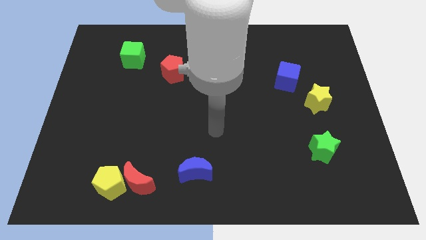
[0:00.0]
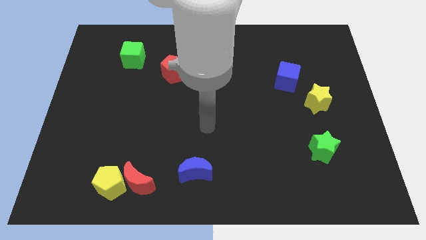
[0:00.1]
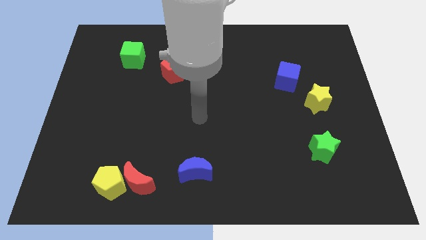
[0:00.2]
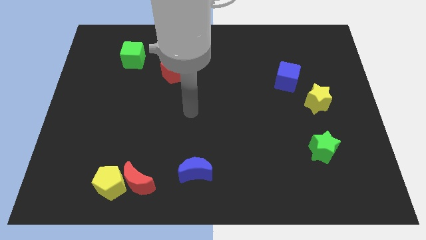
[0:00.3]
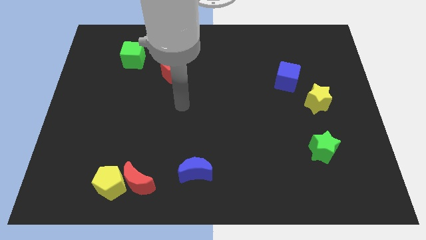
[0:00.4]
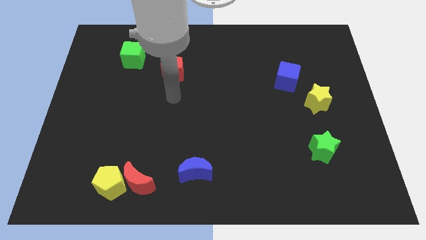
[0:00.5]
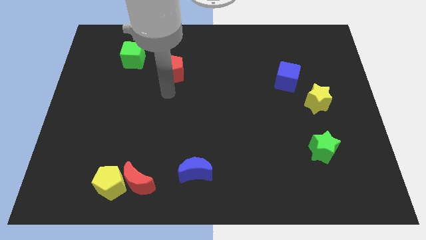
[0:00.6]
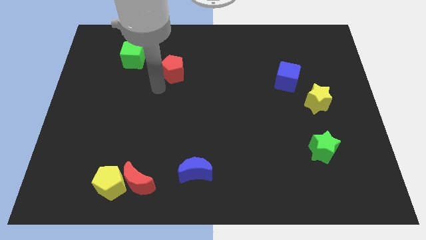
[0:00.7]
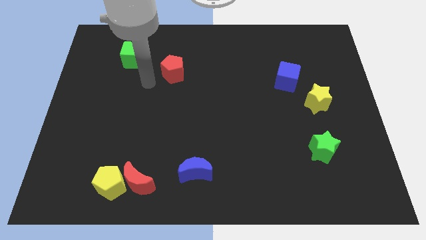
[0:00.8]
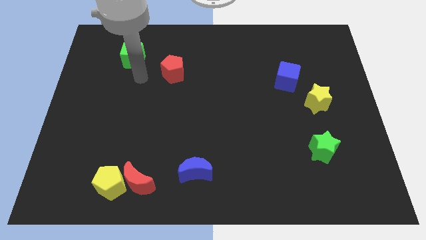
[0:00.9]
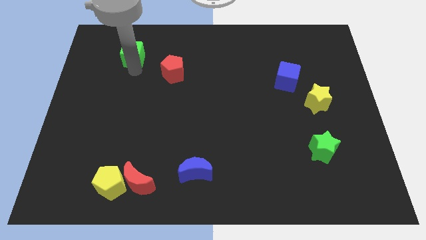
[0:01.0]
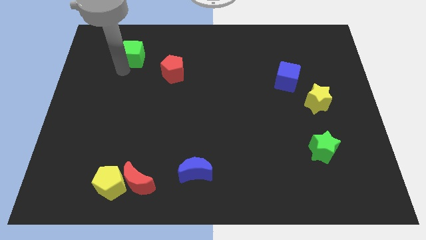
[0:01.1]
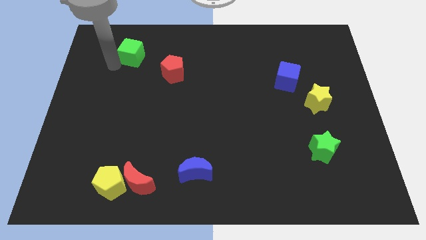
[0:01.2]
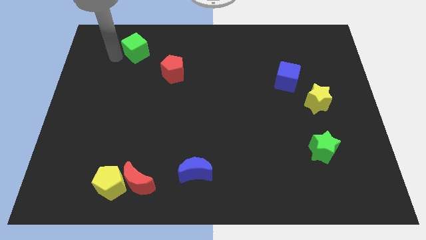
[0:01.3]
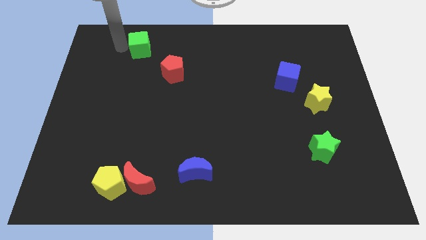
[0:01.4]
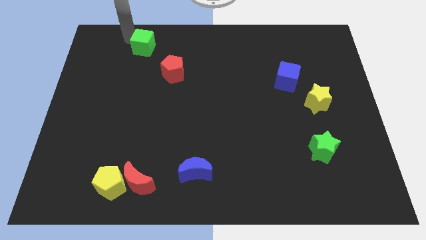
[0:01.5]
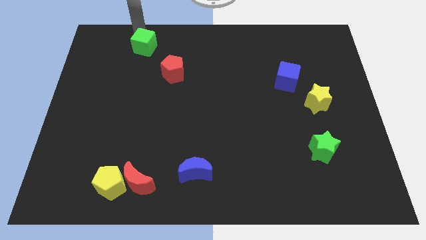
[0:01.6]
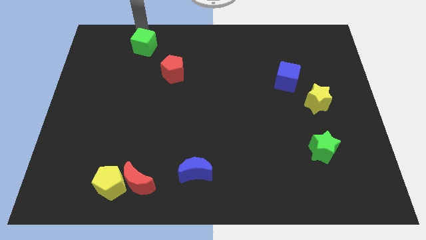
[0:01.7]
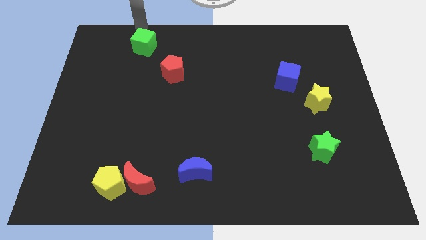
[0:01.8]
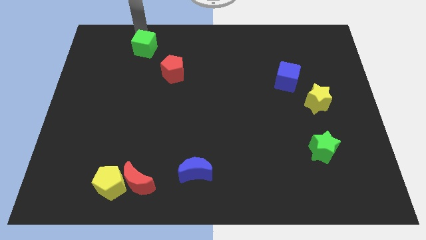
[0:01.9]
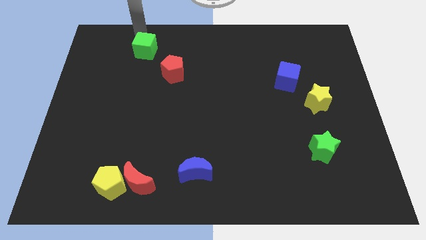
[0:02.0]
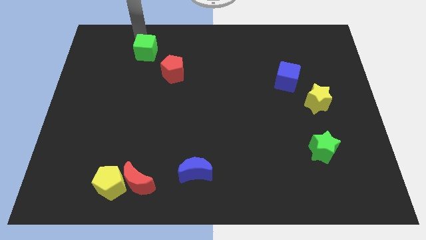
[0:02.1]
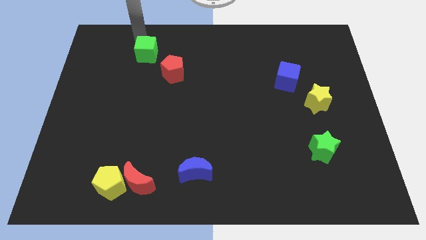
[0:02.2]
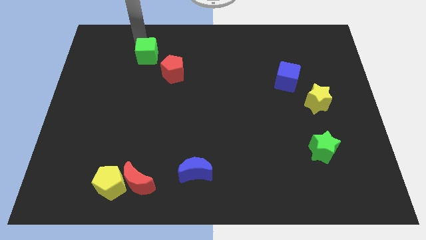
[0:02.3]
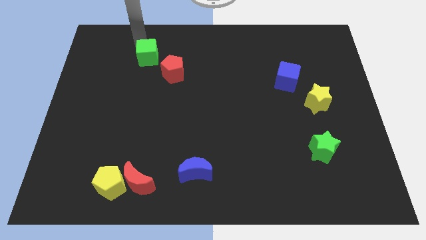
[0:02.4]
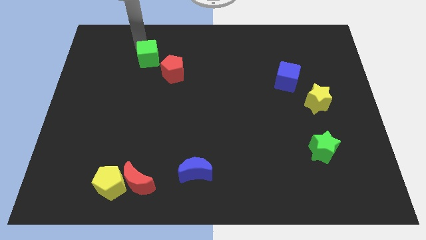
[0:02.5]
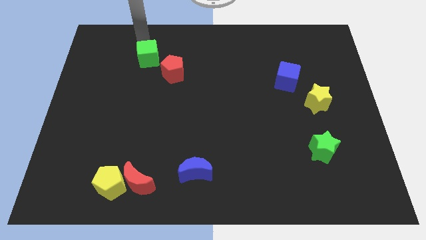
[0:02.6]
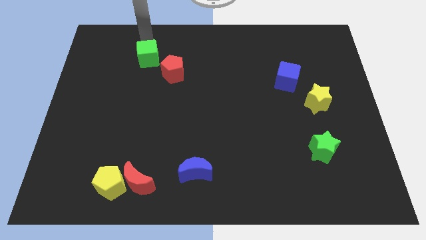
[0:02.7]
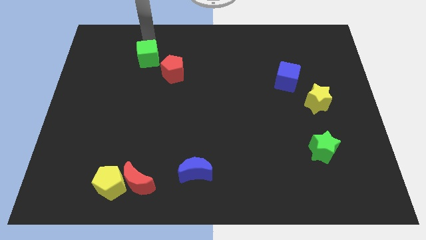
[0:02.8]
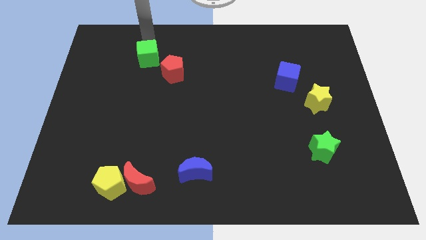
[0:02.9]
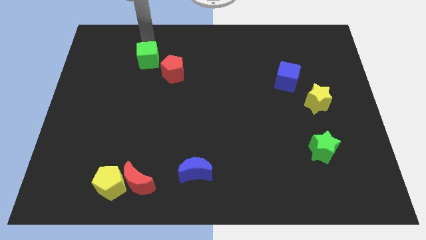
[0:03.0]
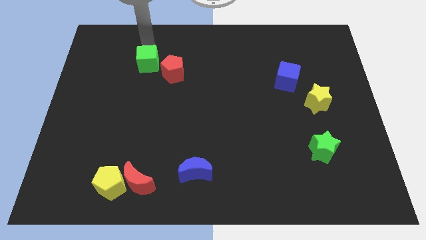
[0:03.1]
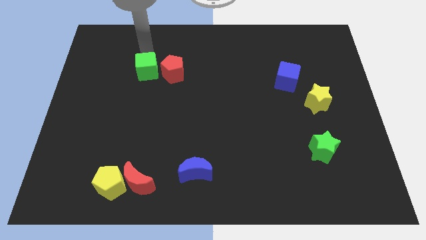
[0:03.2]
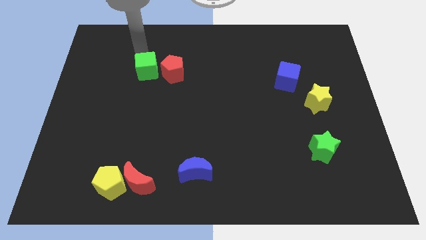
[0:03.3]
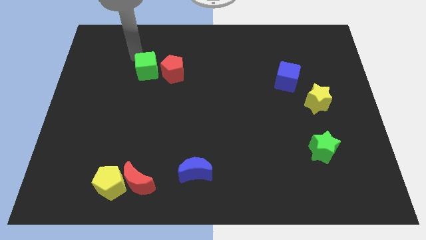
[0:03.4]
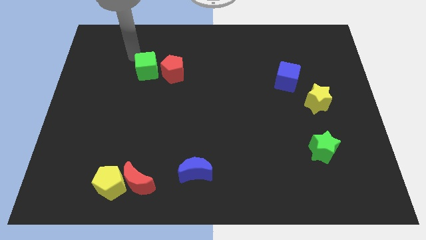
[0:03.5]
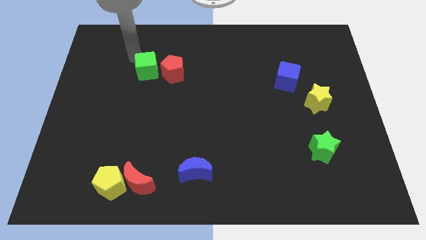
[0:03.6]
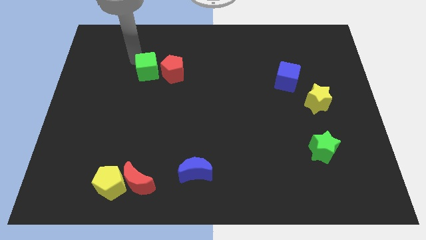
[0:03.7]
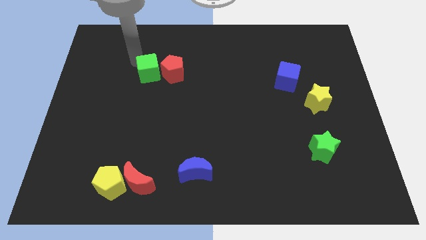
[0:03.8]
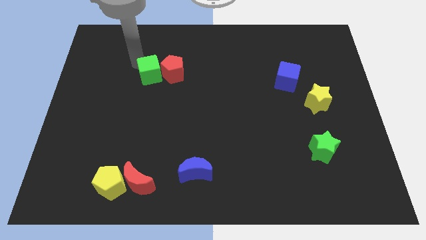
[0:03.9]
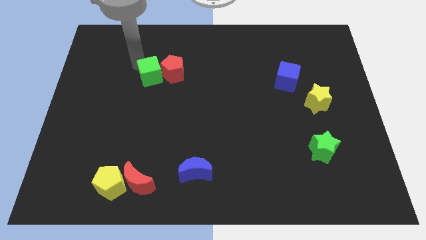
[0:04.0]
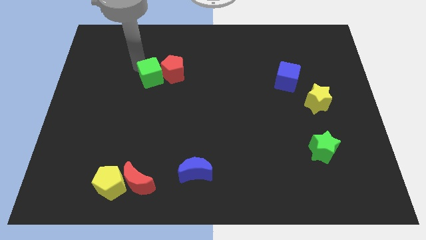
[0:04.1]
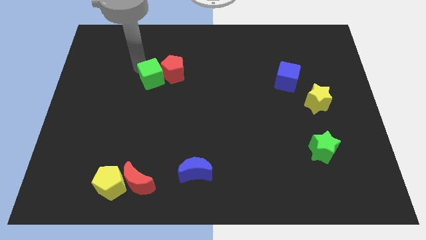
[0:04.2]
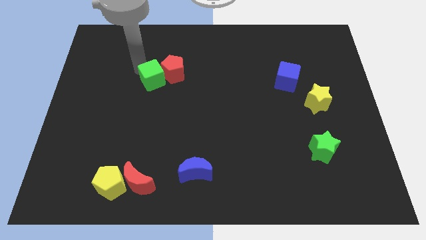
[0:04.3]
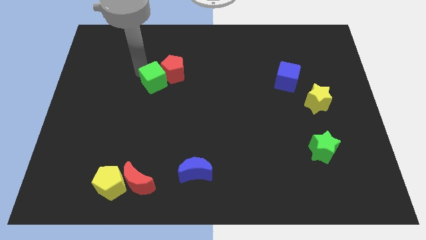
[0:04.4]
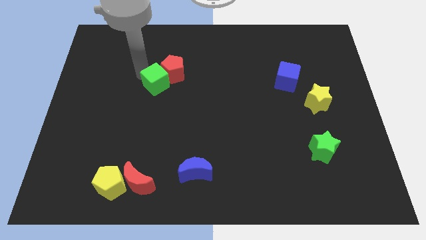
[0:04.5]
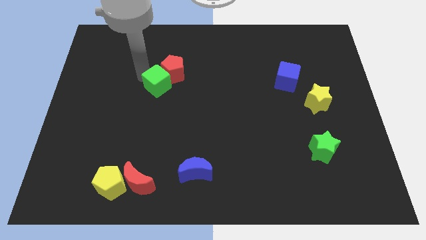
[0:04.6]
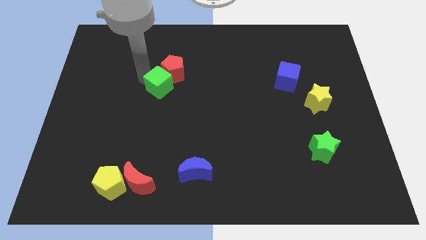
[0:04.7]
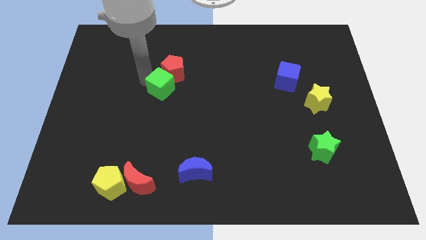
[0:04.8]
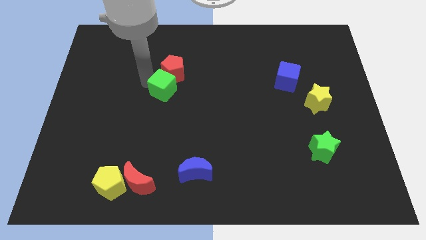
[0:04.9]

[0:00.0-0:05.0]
move the green cube to the center
